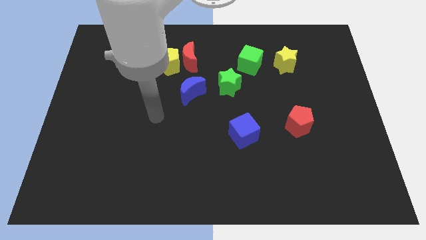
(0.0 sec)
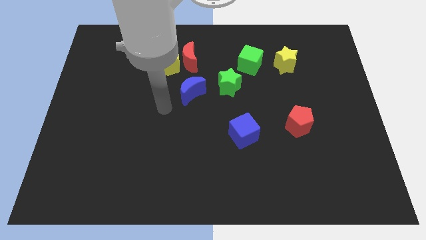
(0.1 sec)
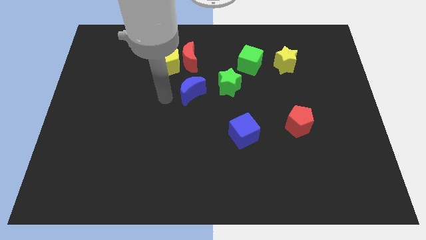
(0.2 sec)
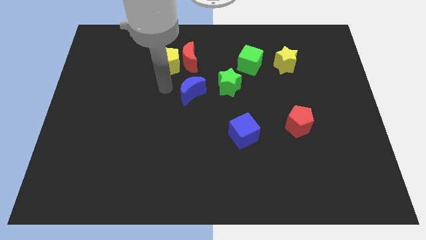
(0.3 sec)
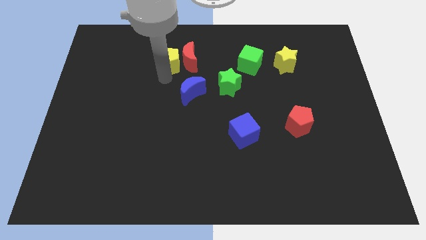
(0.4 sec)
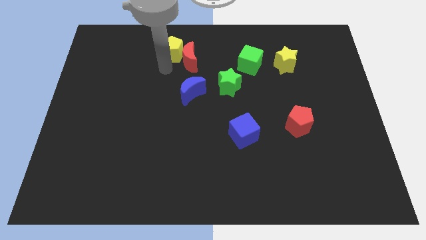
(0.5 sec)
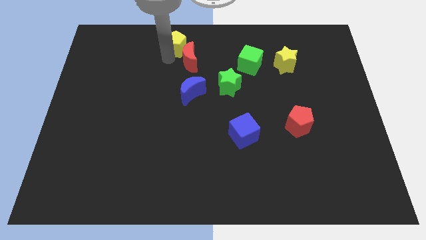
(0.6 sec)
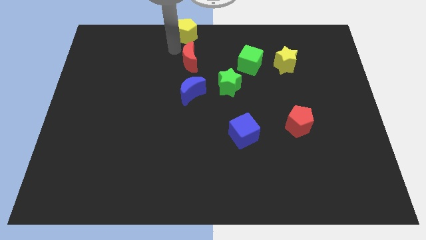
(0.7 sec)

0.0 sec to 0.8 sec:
separate the red moon from the yellow pentagon

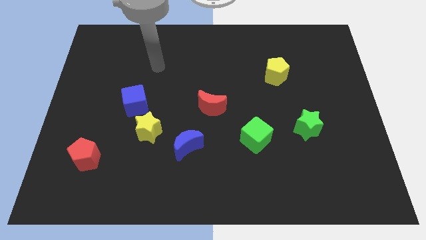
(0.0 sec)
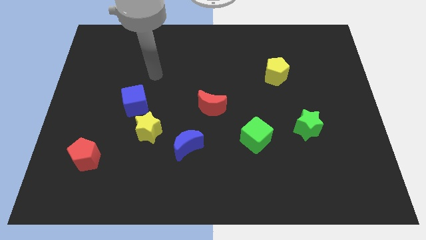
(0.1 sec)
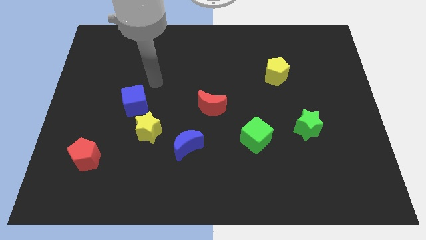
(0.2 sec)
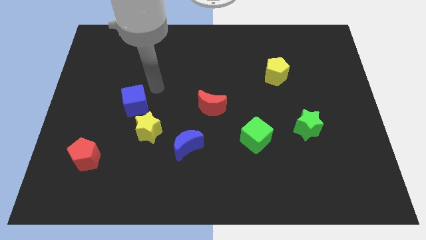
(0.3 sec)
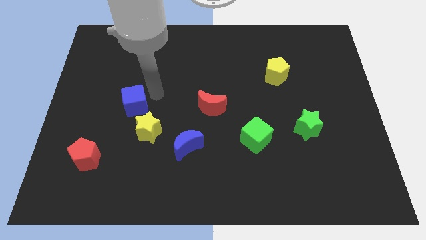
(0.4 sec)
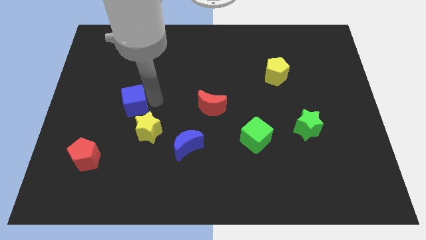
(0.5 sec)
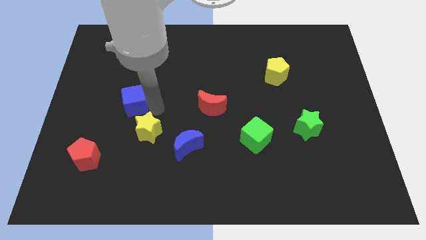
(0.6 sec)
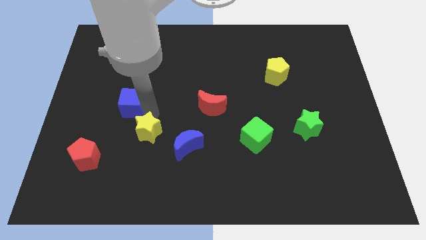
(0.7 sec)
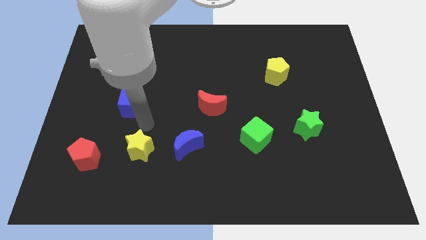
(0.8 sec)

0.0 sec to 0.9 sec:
pull the blue cube apart from the yellow star

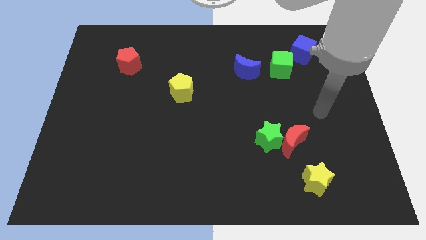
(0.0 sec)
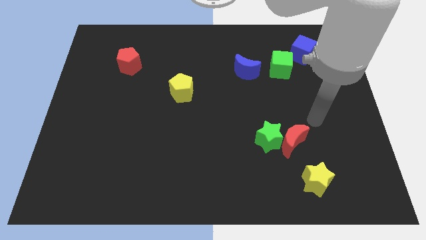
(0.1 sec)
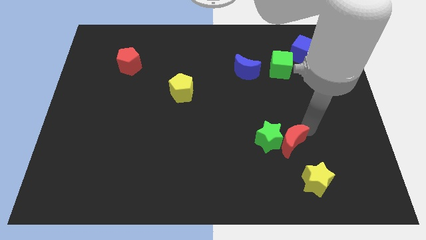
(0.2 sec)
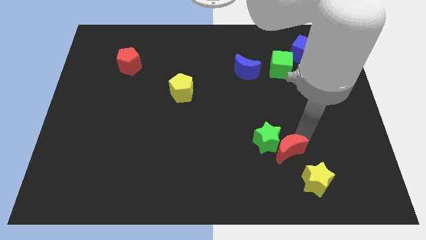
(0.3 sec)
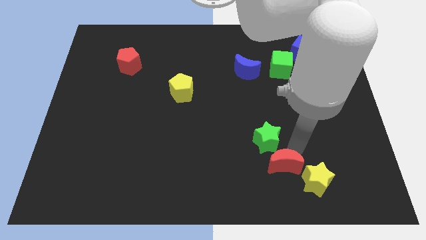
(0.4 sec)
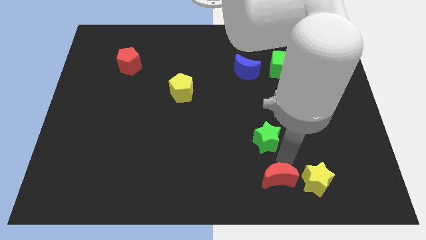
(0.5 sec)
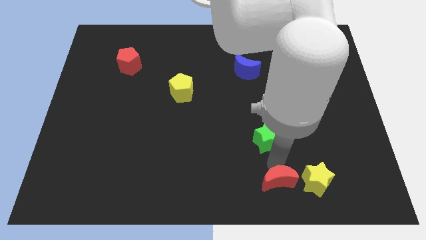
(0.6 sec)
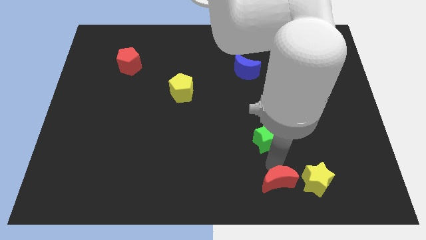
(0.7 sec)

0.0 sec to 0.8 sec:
pull the green star apart from the red moon

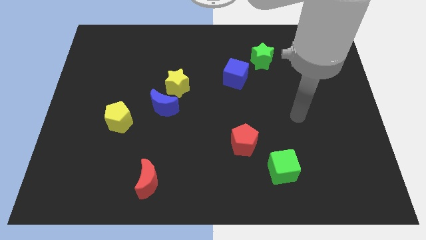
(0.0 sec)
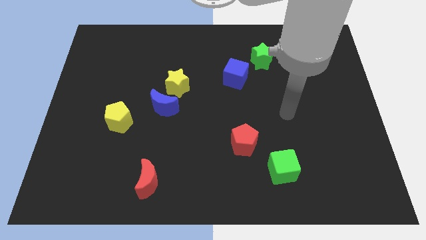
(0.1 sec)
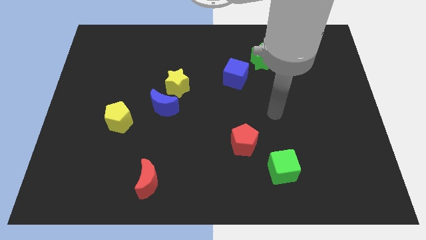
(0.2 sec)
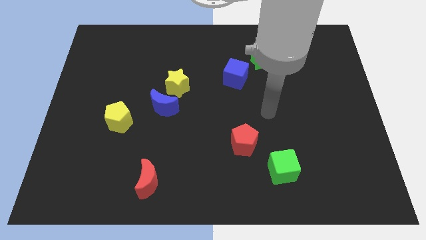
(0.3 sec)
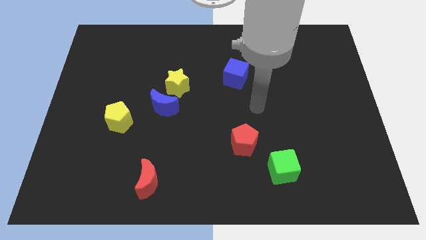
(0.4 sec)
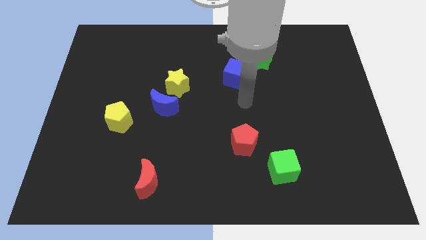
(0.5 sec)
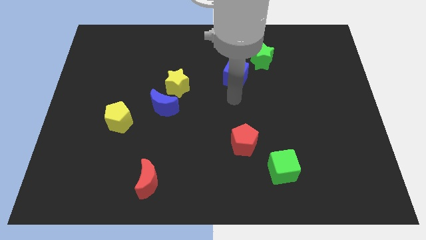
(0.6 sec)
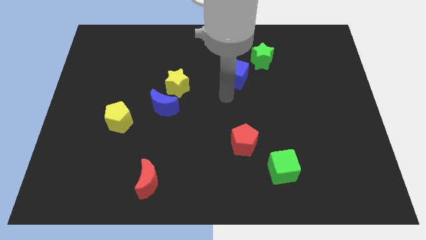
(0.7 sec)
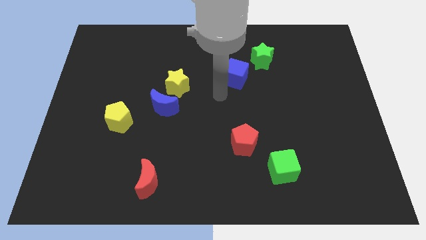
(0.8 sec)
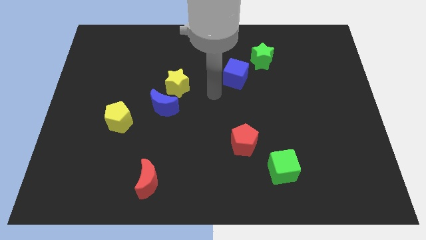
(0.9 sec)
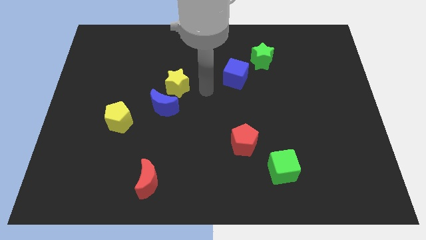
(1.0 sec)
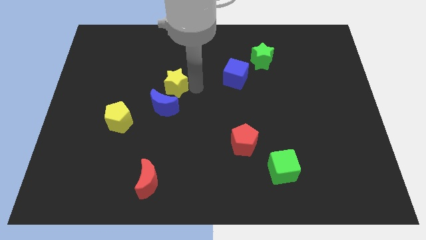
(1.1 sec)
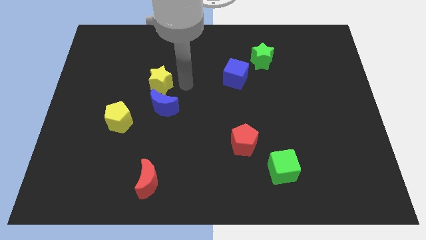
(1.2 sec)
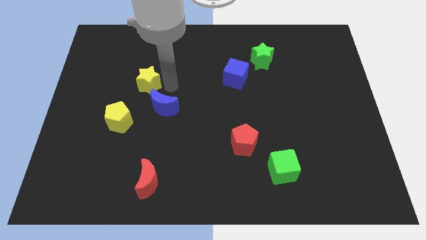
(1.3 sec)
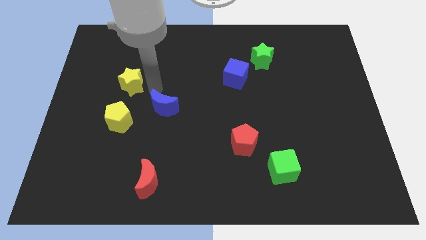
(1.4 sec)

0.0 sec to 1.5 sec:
separate the blue moon from the yellow star

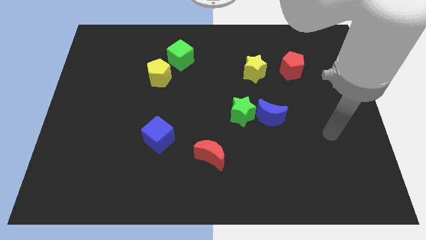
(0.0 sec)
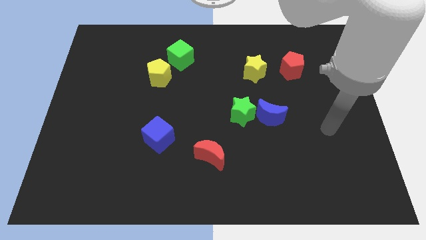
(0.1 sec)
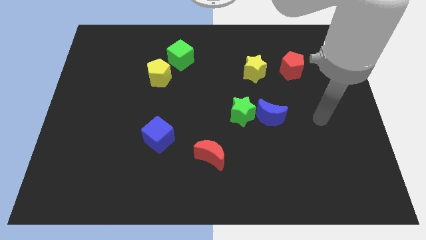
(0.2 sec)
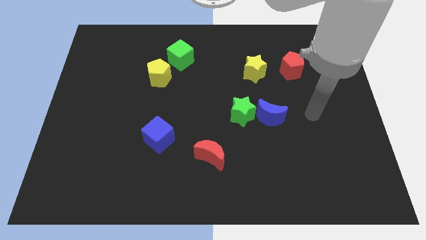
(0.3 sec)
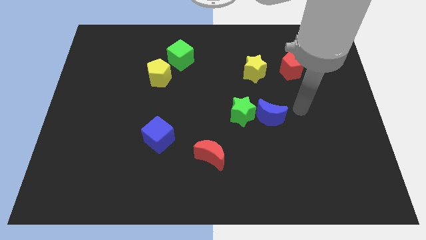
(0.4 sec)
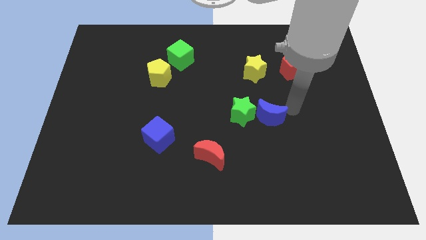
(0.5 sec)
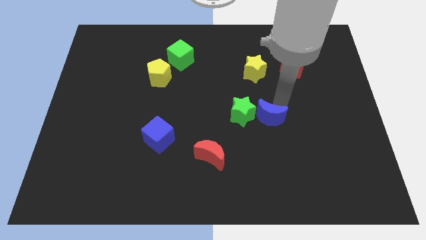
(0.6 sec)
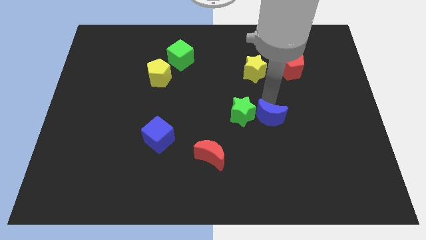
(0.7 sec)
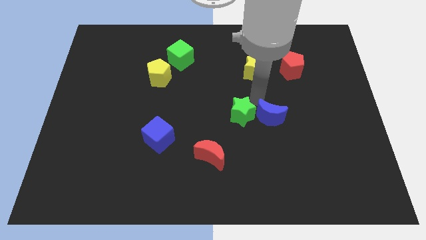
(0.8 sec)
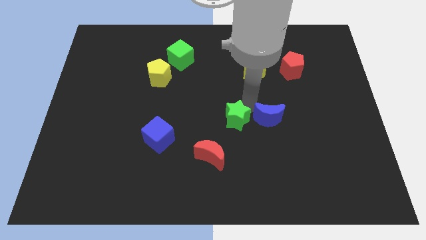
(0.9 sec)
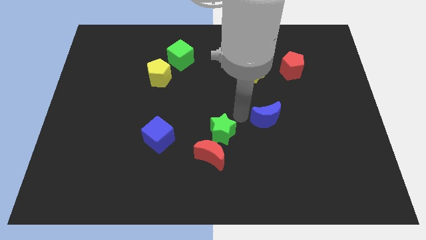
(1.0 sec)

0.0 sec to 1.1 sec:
separate the blue moon from the green star

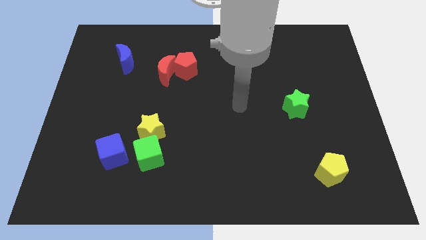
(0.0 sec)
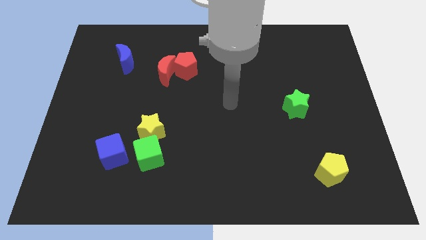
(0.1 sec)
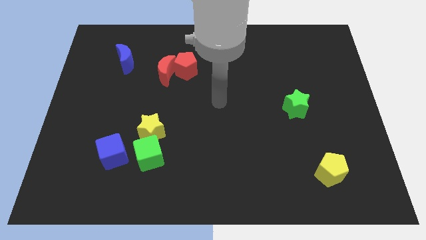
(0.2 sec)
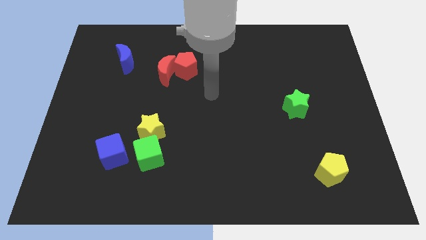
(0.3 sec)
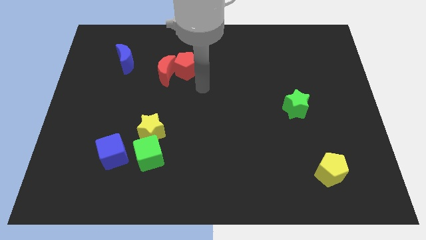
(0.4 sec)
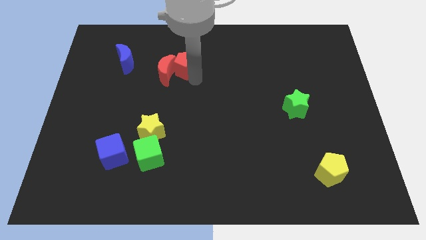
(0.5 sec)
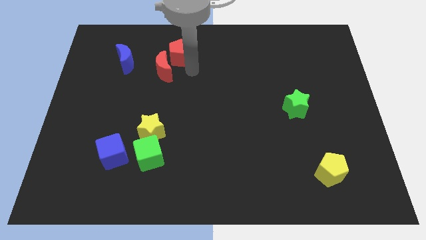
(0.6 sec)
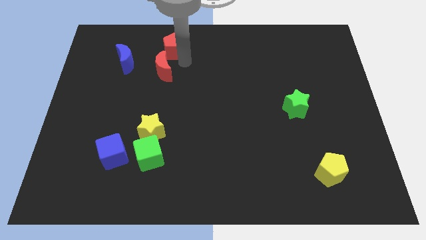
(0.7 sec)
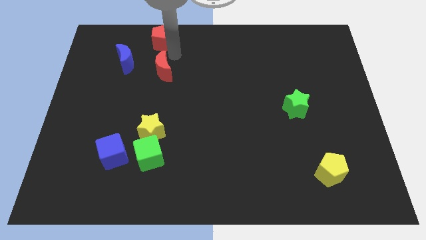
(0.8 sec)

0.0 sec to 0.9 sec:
pull the red moon apart from the red pentagon

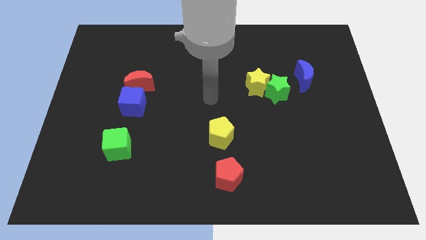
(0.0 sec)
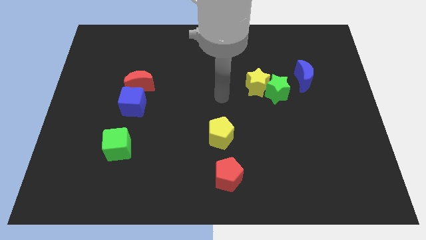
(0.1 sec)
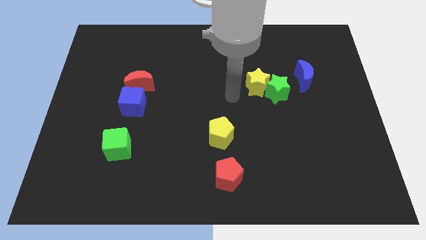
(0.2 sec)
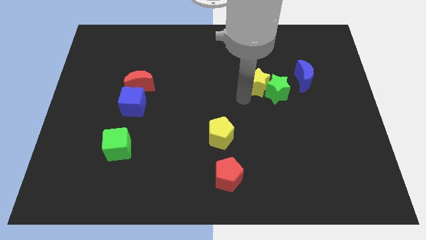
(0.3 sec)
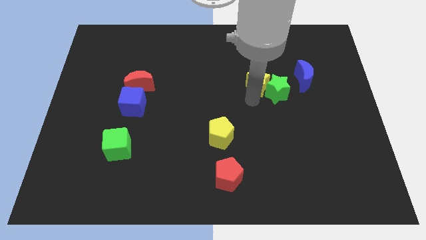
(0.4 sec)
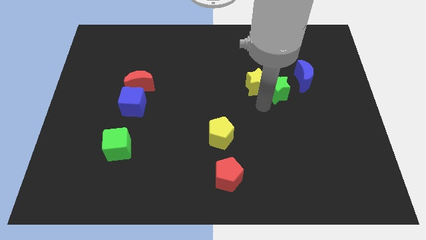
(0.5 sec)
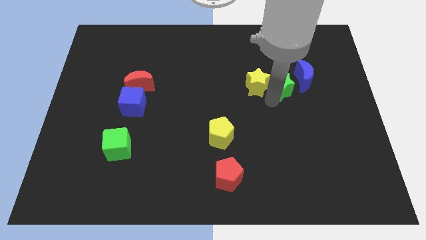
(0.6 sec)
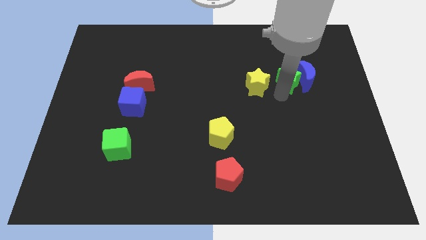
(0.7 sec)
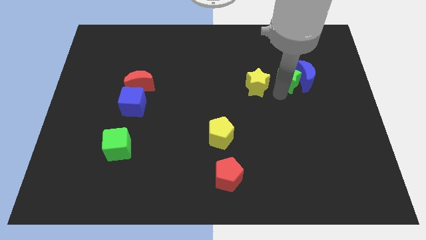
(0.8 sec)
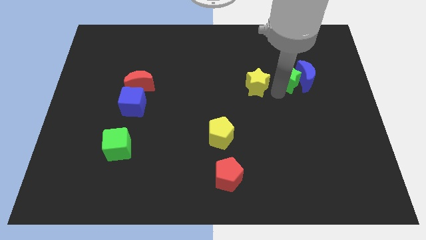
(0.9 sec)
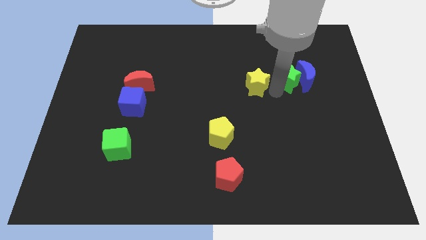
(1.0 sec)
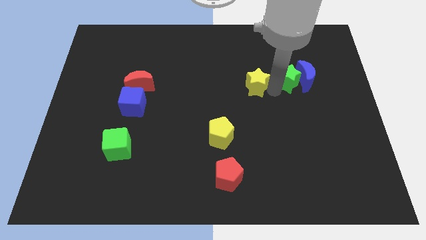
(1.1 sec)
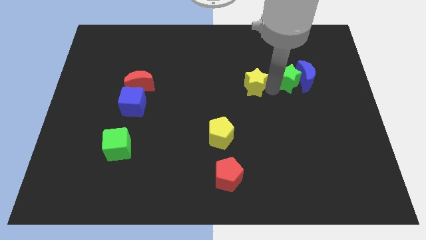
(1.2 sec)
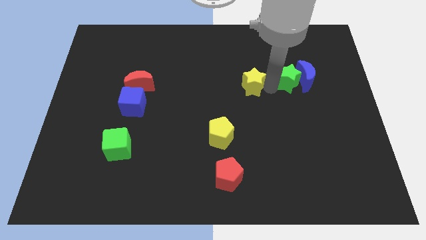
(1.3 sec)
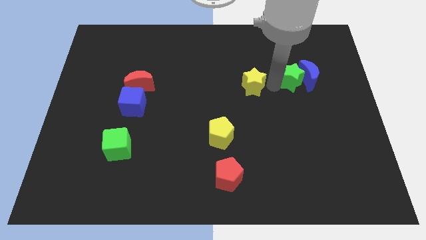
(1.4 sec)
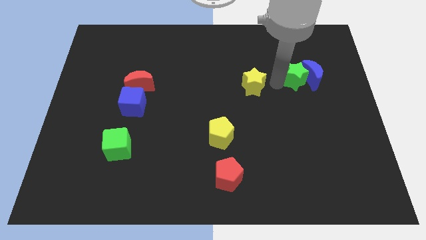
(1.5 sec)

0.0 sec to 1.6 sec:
separate the yellow star from the green star

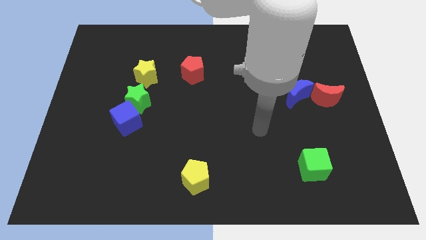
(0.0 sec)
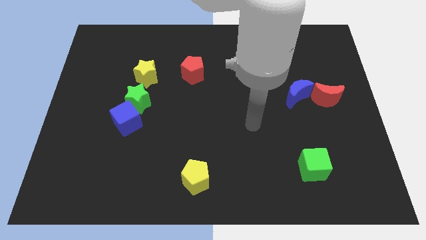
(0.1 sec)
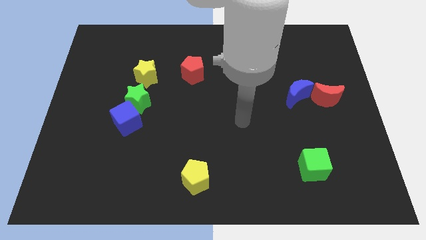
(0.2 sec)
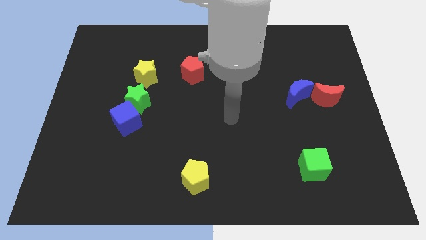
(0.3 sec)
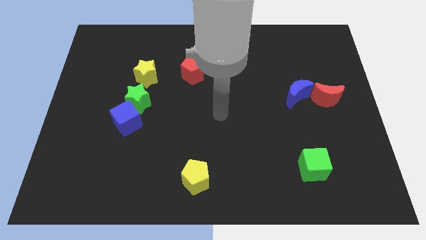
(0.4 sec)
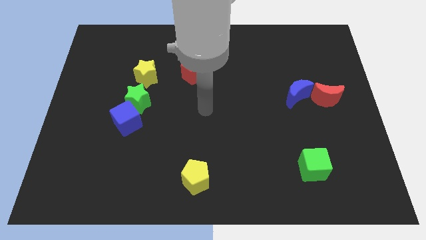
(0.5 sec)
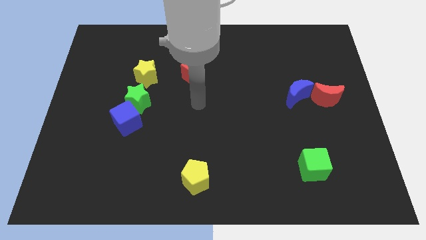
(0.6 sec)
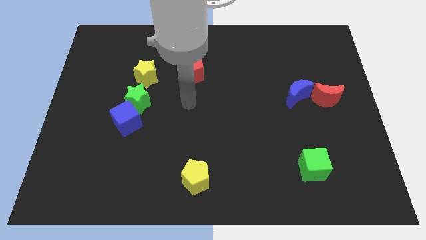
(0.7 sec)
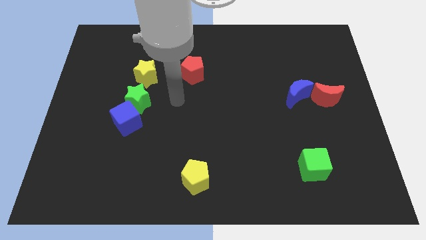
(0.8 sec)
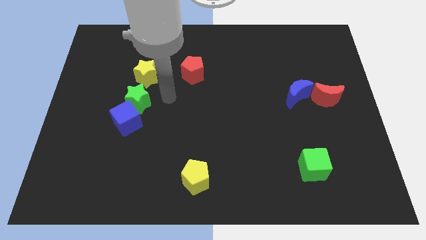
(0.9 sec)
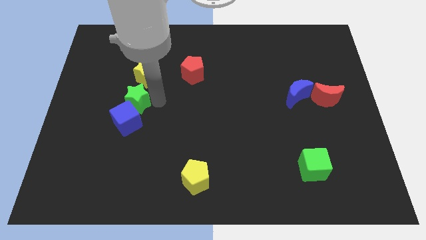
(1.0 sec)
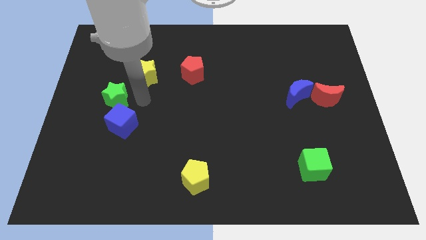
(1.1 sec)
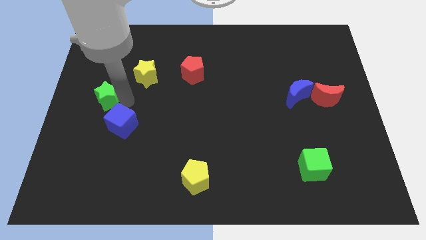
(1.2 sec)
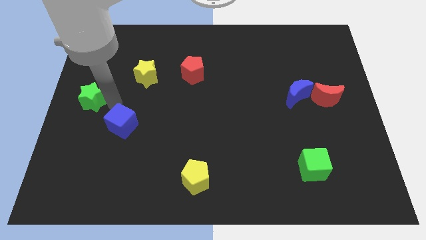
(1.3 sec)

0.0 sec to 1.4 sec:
move the blue cube away from the green star

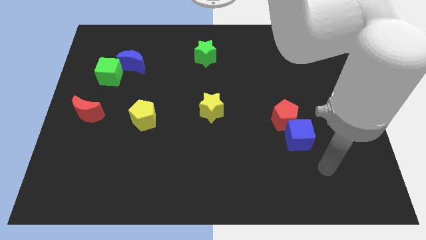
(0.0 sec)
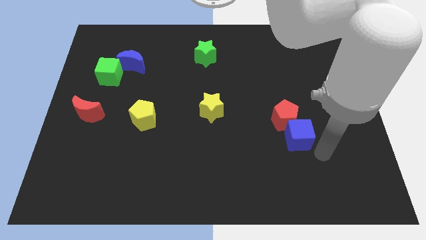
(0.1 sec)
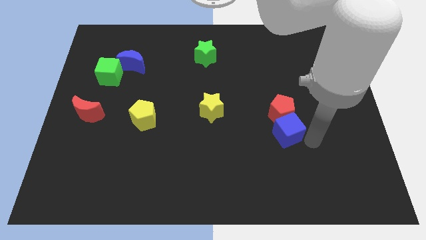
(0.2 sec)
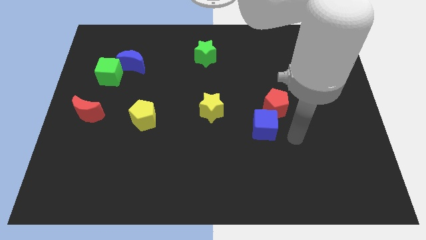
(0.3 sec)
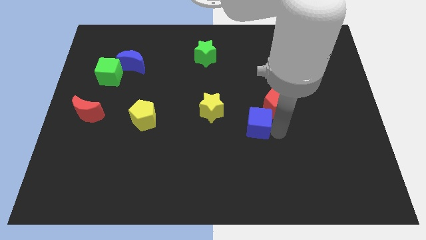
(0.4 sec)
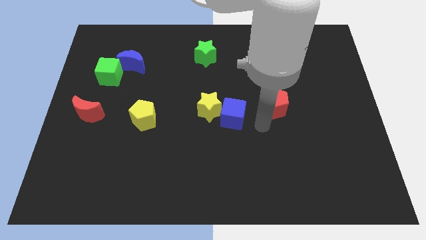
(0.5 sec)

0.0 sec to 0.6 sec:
pull the red pentagon apart from the blue cube
